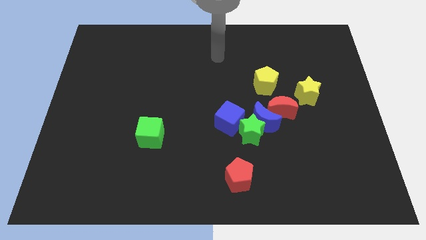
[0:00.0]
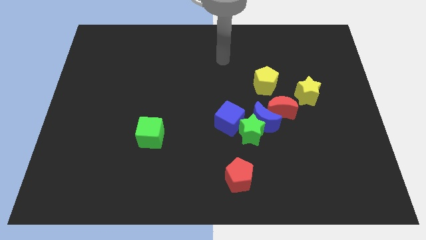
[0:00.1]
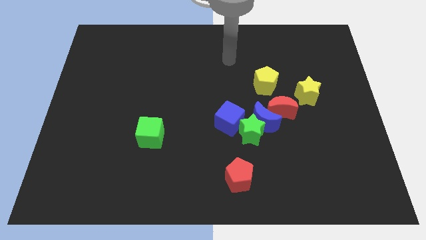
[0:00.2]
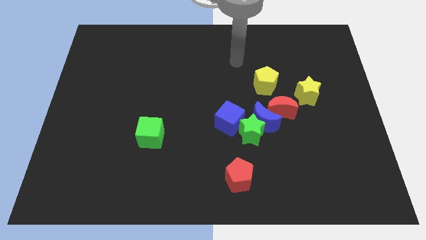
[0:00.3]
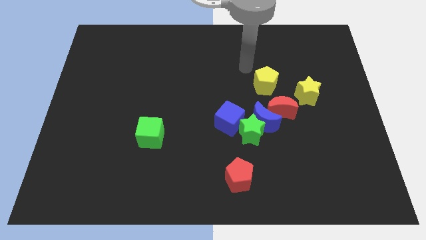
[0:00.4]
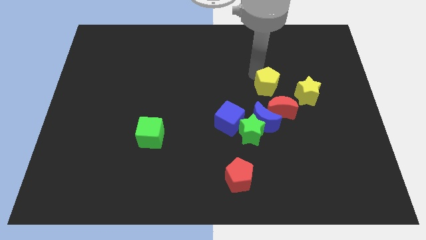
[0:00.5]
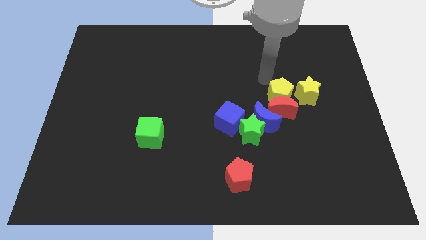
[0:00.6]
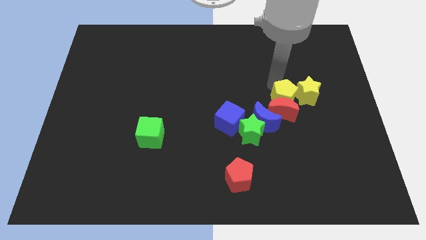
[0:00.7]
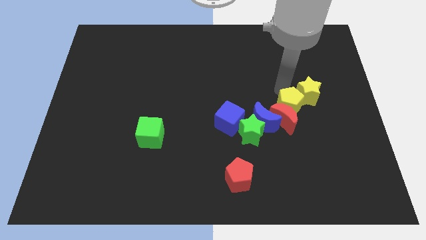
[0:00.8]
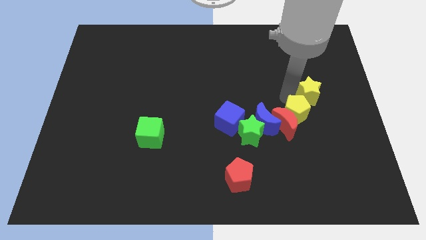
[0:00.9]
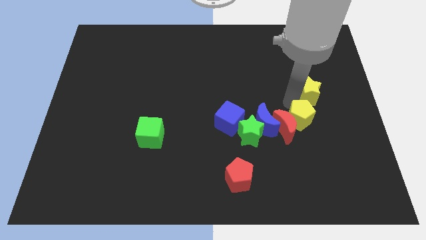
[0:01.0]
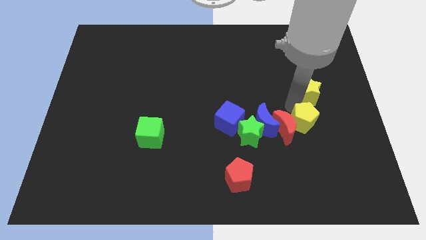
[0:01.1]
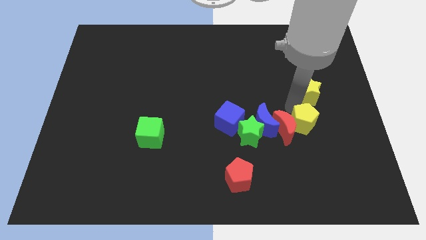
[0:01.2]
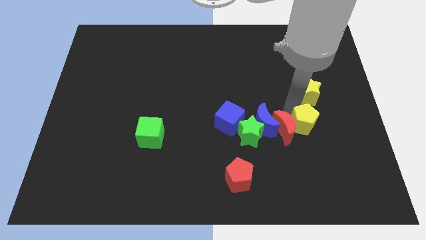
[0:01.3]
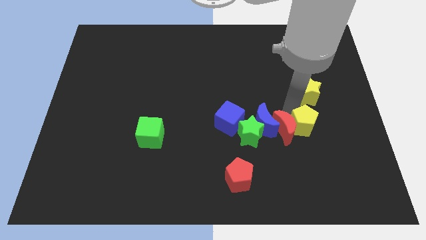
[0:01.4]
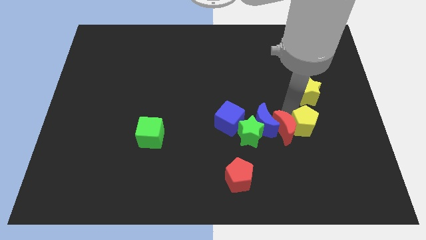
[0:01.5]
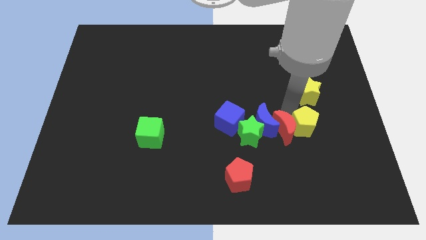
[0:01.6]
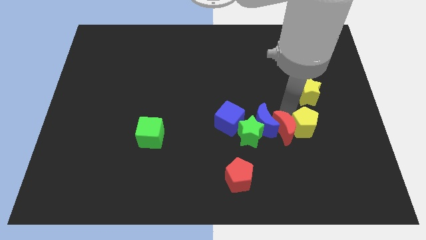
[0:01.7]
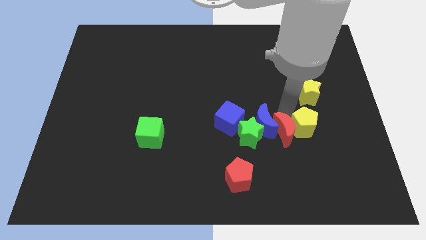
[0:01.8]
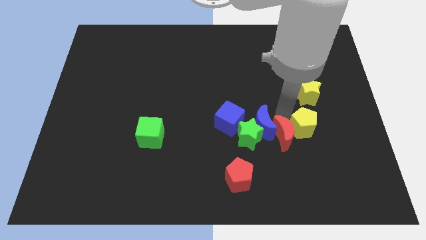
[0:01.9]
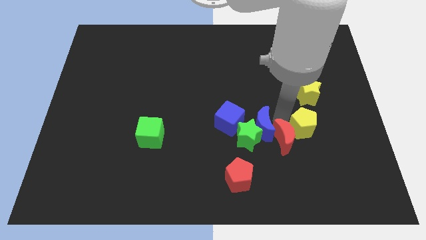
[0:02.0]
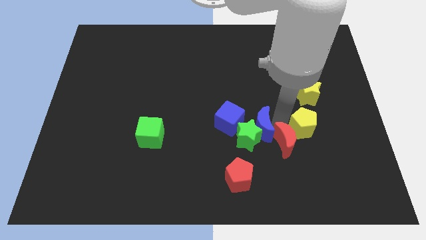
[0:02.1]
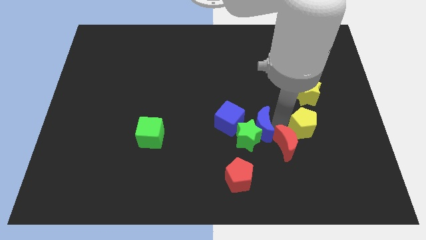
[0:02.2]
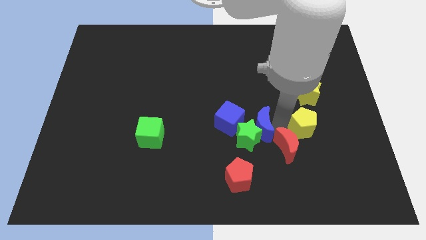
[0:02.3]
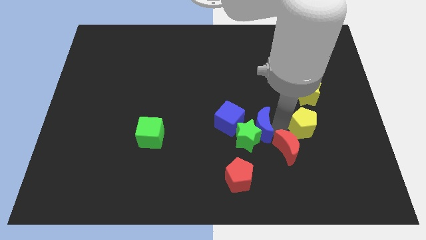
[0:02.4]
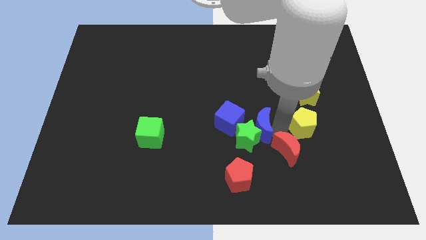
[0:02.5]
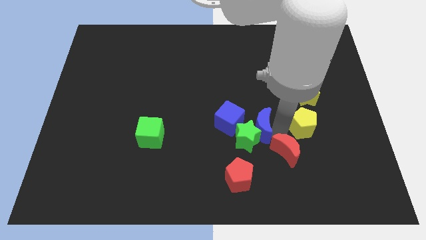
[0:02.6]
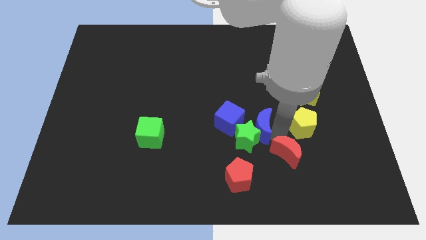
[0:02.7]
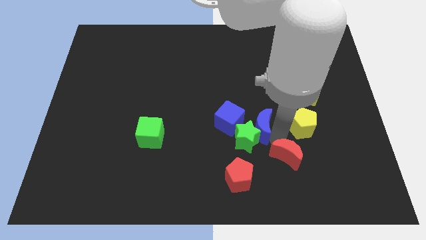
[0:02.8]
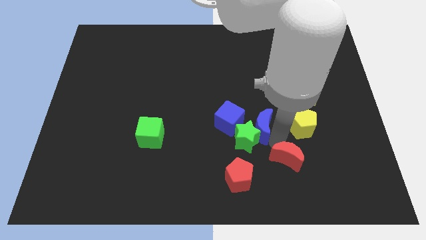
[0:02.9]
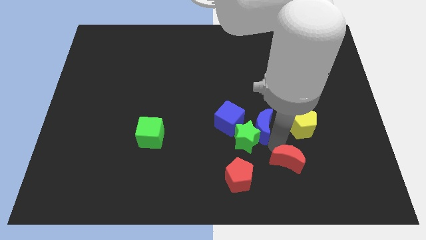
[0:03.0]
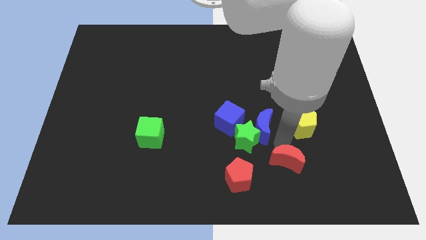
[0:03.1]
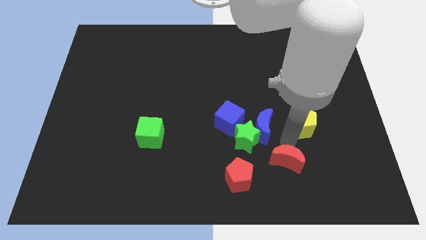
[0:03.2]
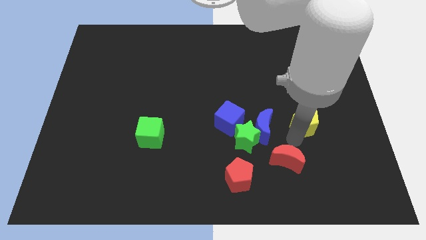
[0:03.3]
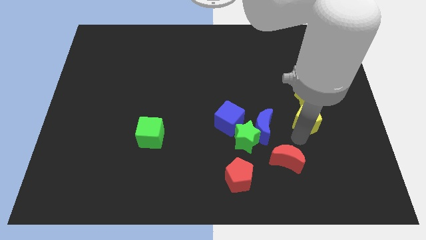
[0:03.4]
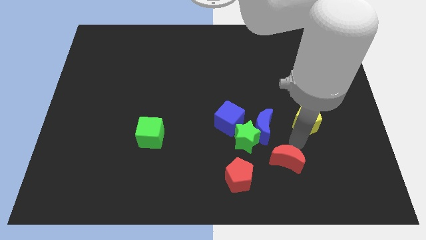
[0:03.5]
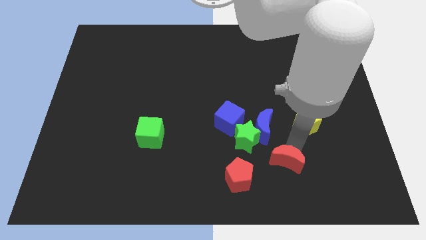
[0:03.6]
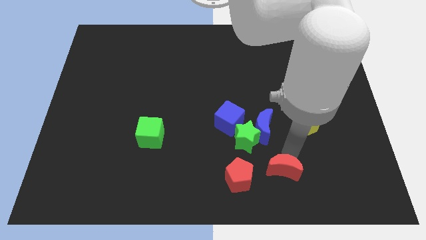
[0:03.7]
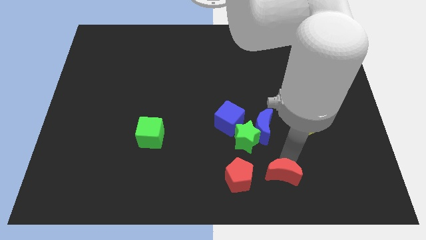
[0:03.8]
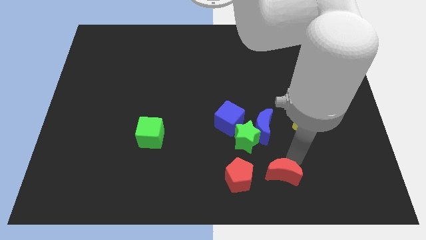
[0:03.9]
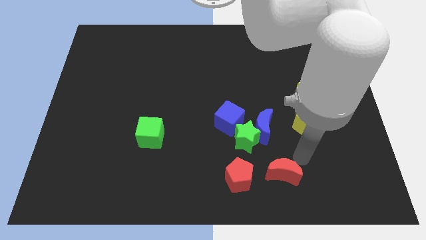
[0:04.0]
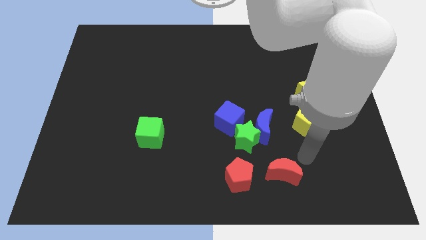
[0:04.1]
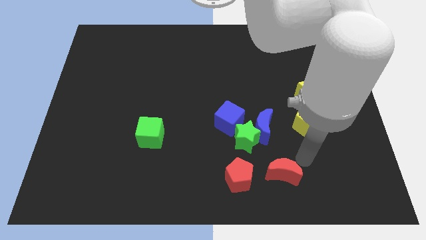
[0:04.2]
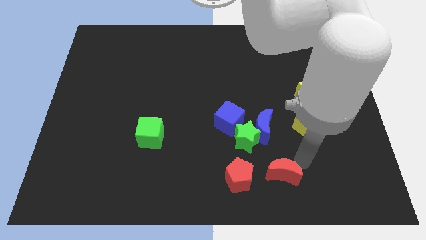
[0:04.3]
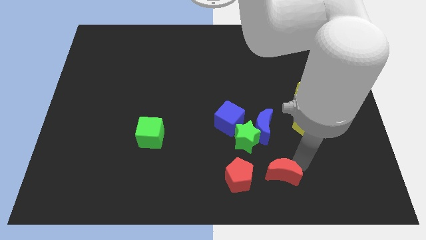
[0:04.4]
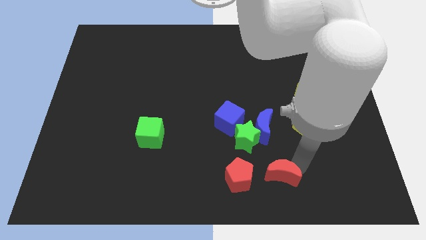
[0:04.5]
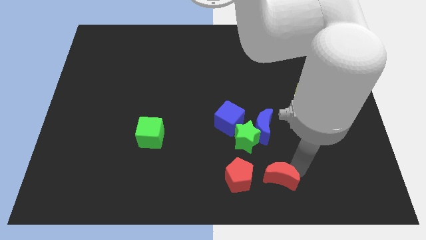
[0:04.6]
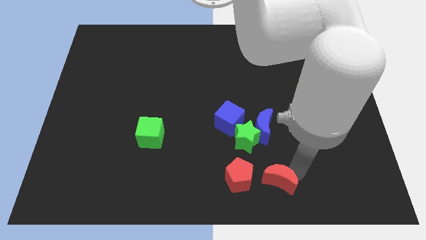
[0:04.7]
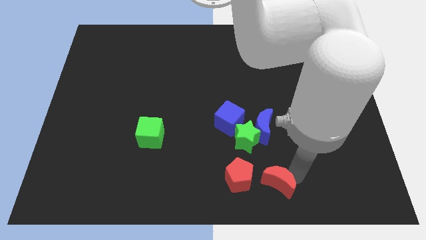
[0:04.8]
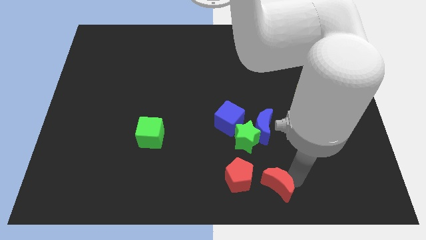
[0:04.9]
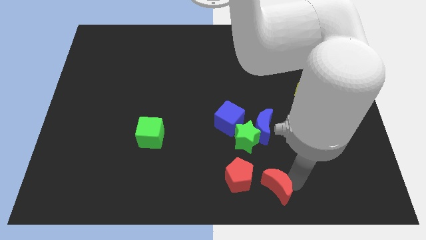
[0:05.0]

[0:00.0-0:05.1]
push the red moon to the bottom side

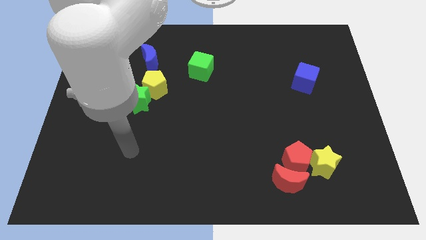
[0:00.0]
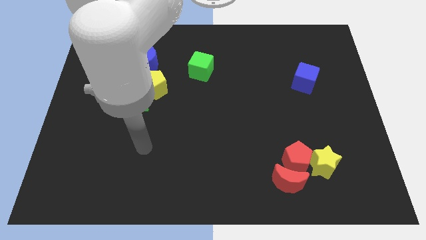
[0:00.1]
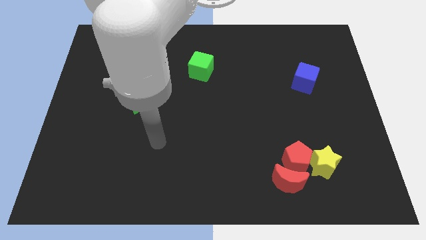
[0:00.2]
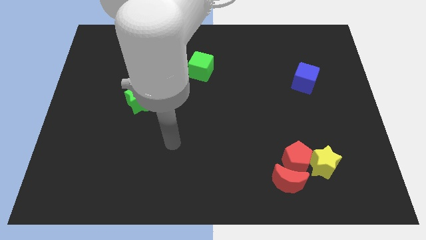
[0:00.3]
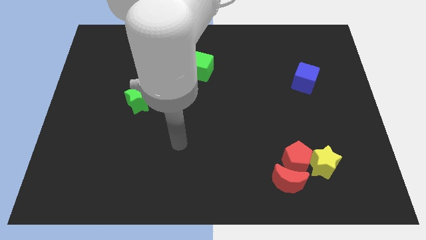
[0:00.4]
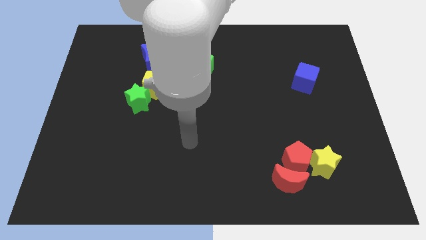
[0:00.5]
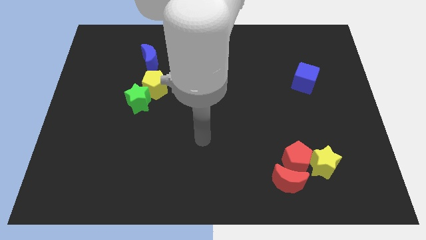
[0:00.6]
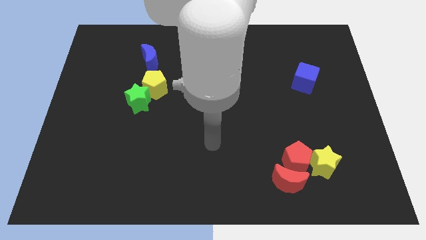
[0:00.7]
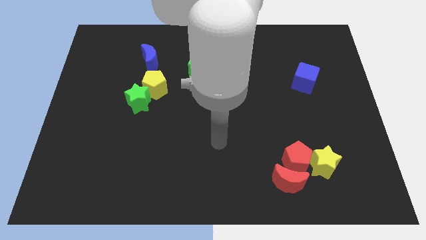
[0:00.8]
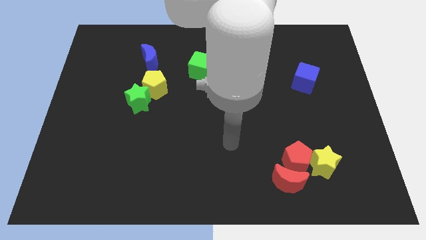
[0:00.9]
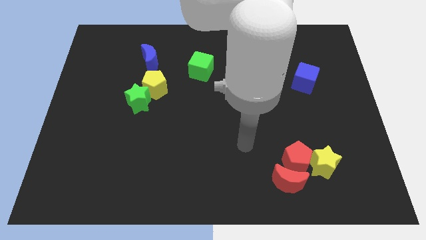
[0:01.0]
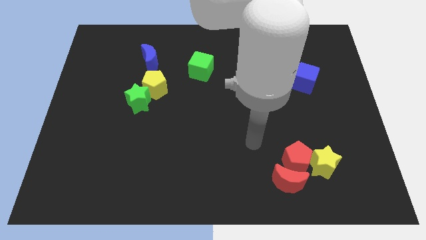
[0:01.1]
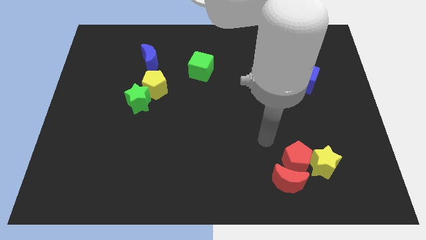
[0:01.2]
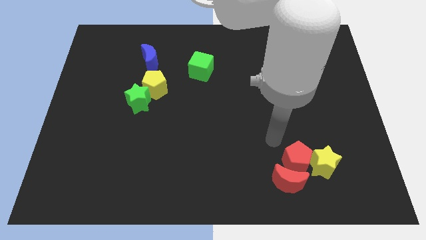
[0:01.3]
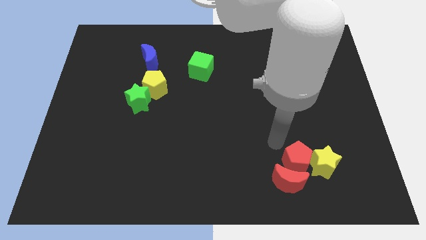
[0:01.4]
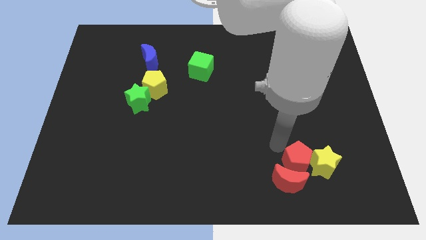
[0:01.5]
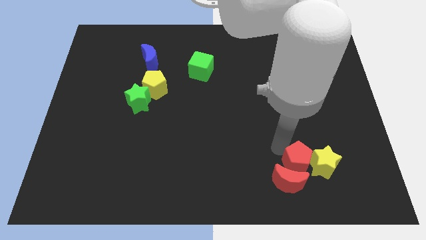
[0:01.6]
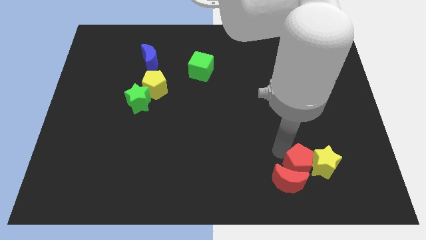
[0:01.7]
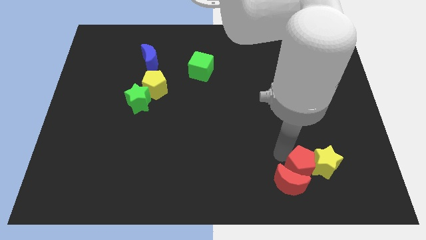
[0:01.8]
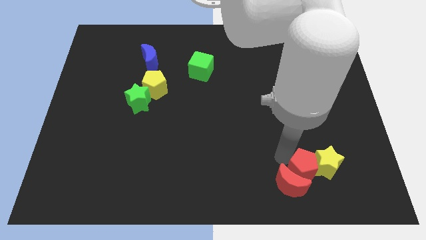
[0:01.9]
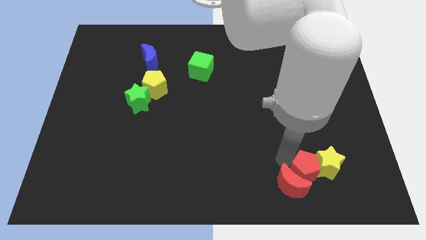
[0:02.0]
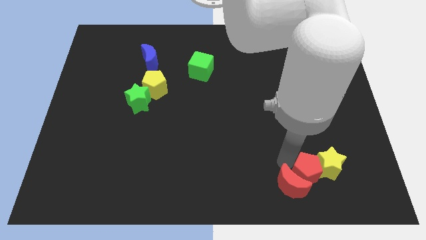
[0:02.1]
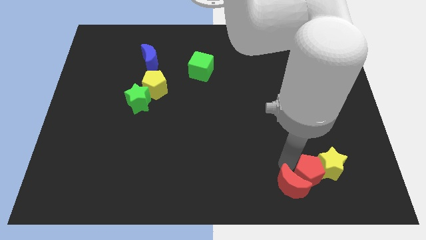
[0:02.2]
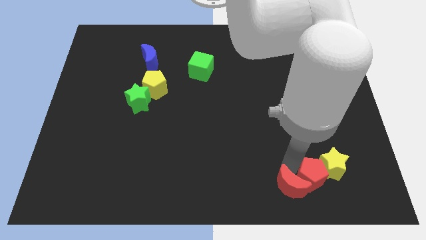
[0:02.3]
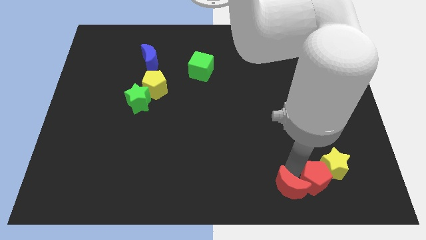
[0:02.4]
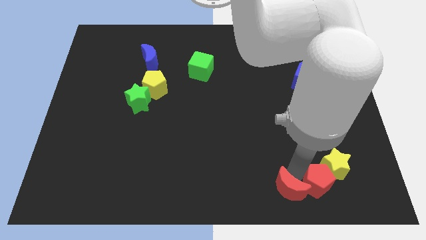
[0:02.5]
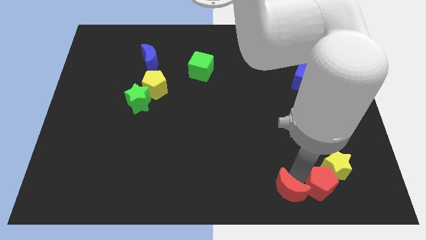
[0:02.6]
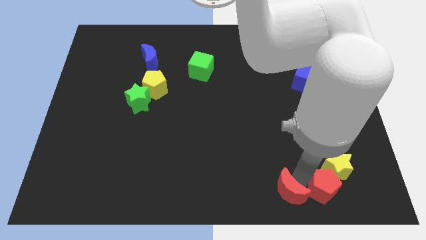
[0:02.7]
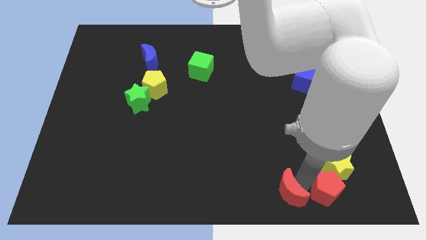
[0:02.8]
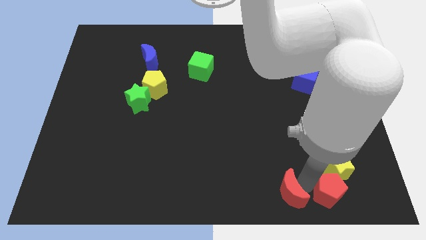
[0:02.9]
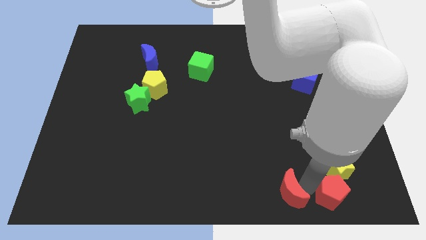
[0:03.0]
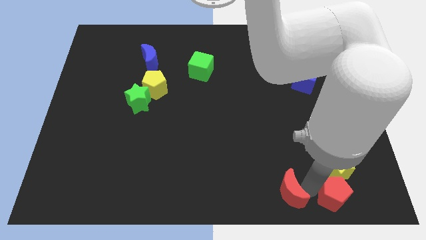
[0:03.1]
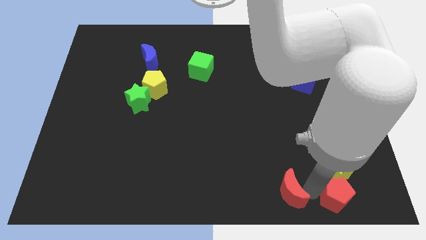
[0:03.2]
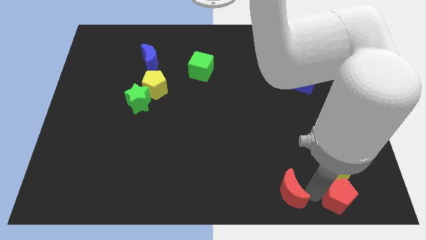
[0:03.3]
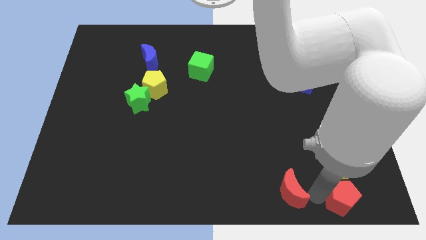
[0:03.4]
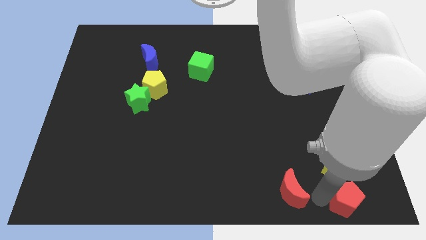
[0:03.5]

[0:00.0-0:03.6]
slide the red pentagon to the bottom right of the board
